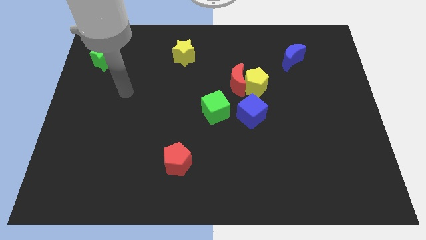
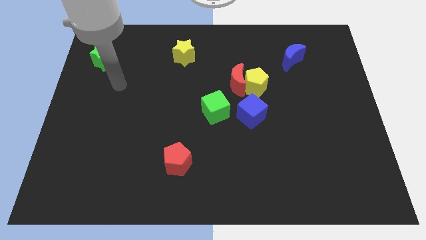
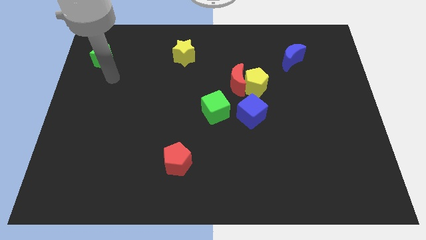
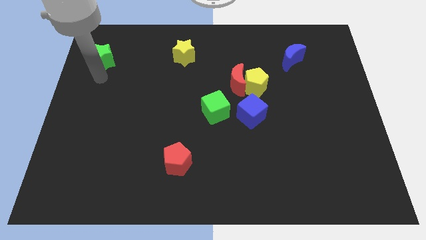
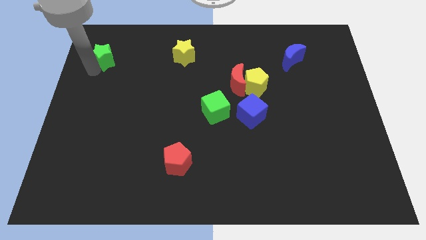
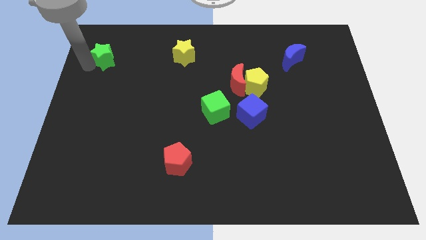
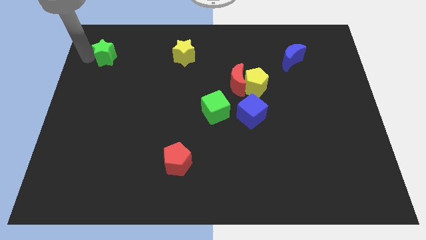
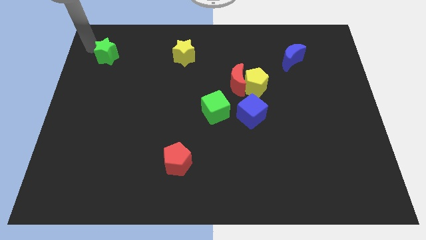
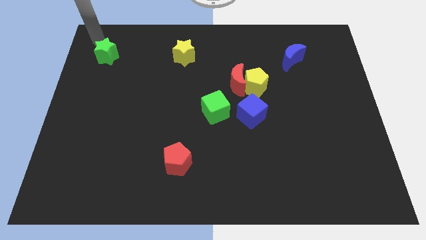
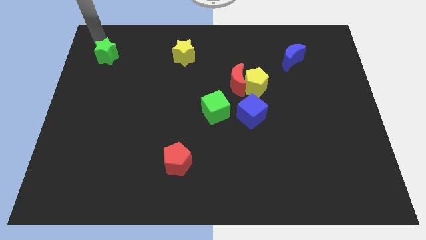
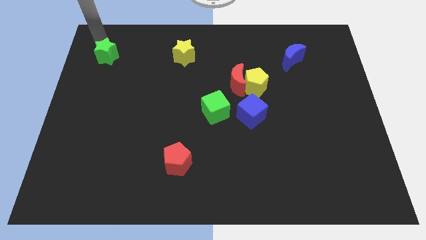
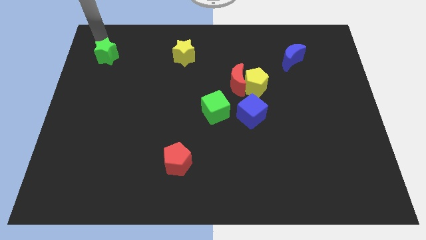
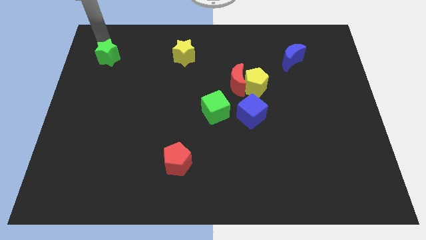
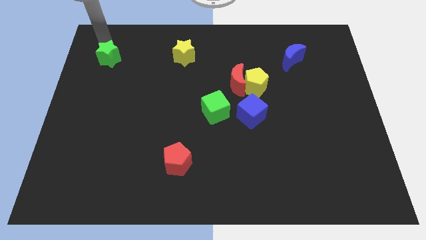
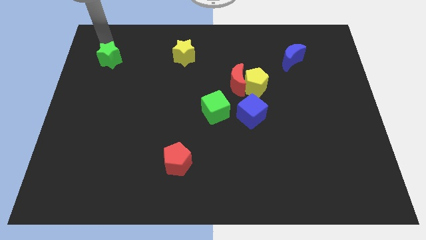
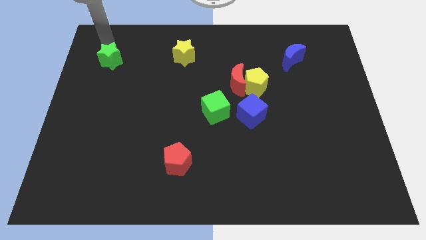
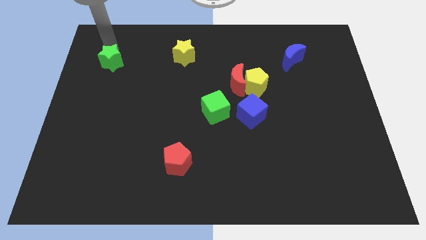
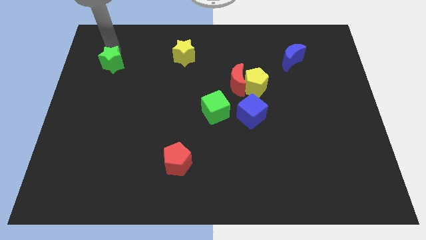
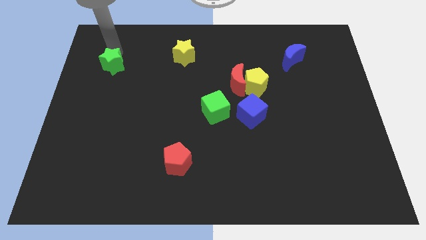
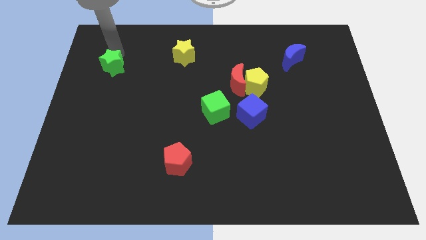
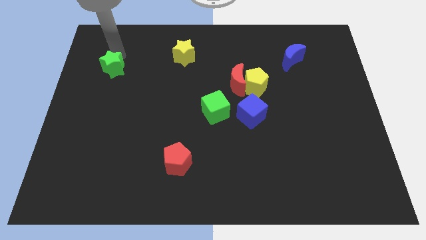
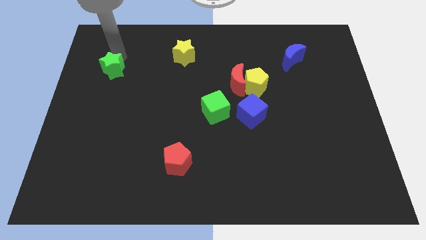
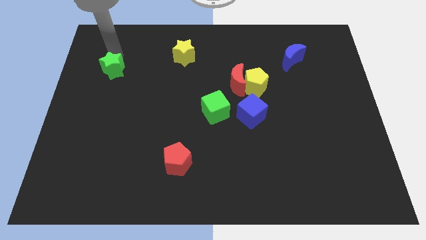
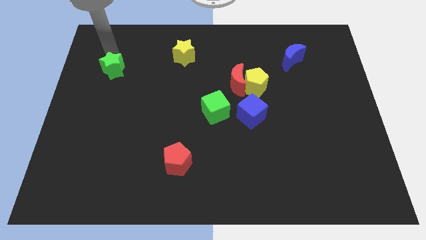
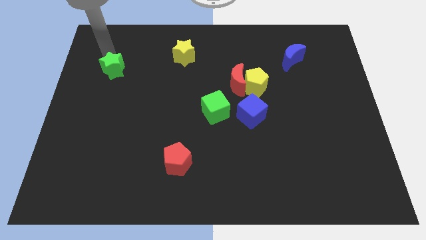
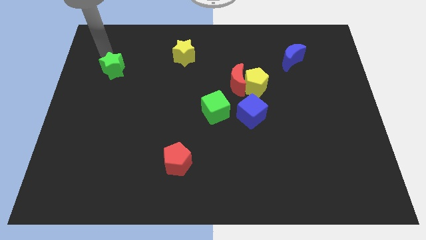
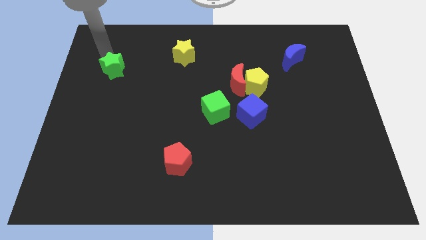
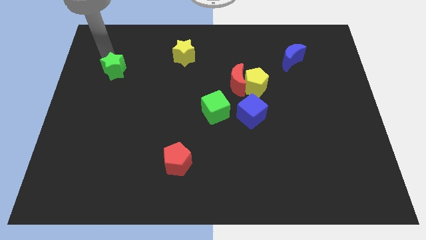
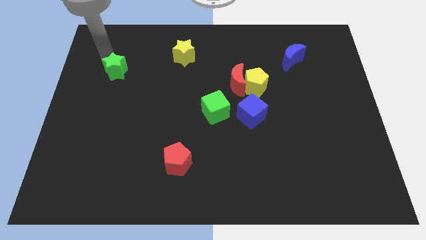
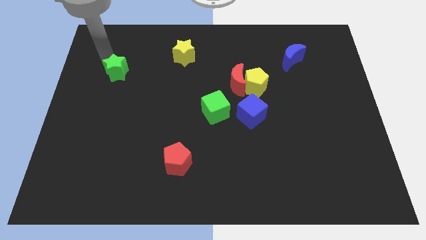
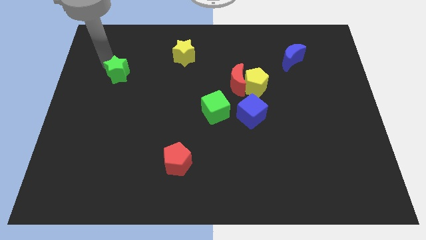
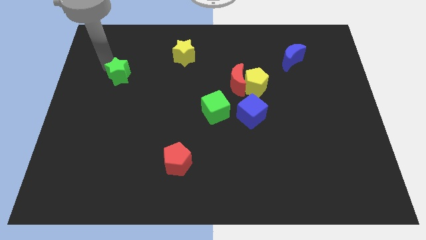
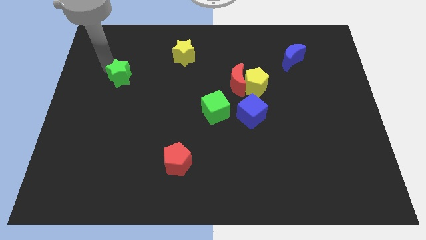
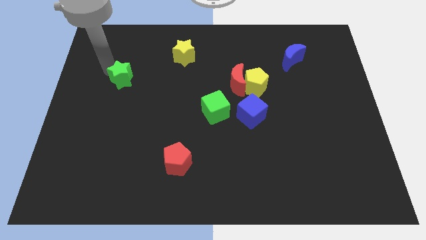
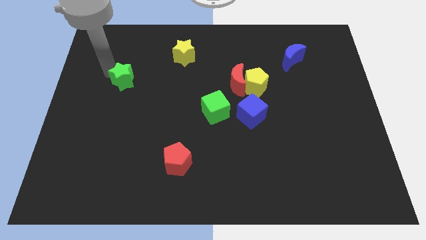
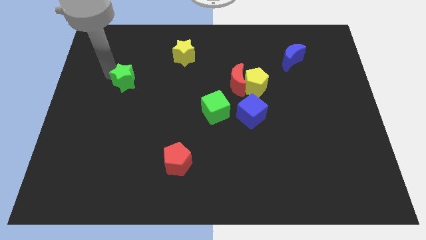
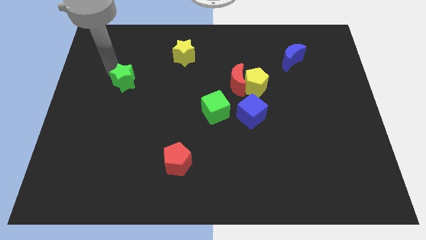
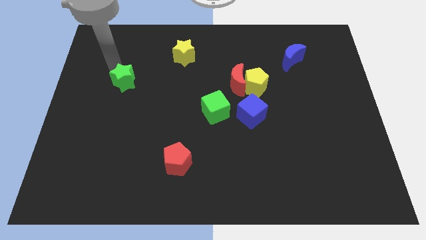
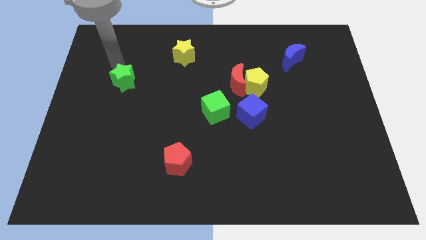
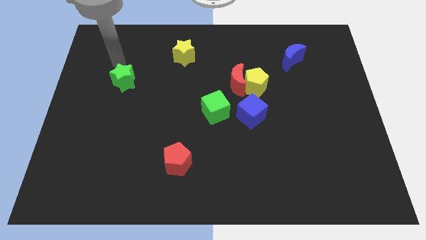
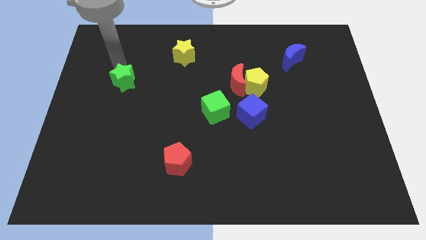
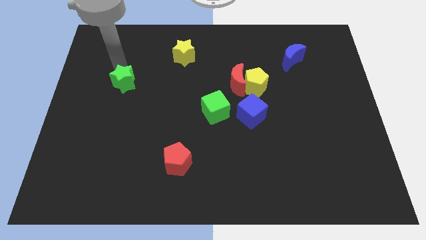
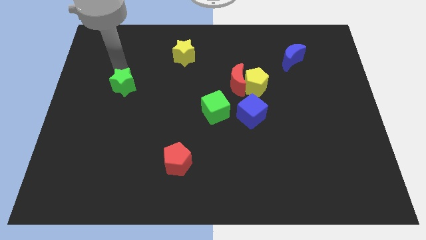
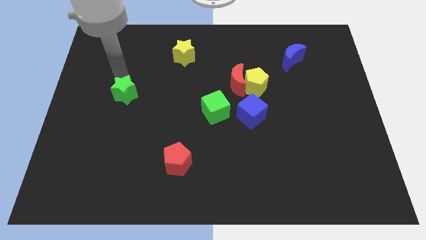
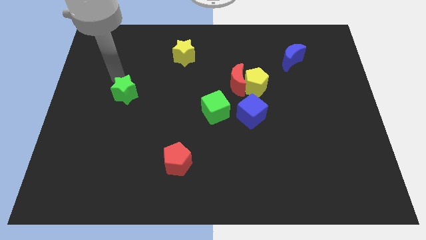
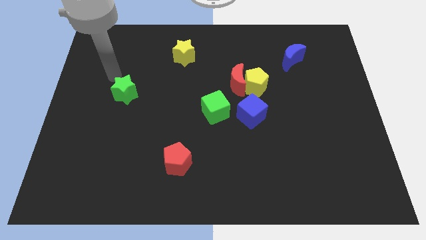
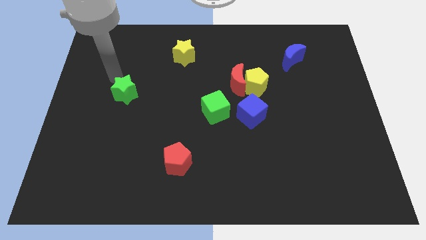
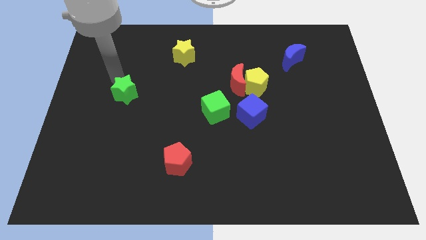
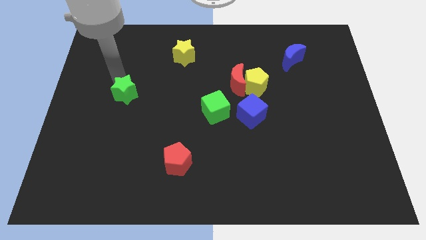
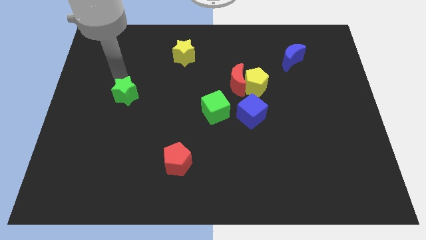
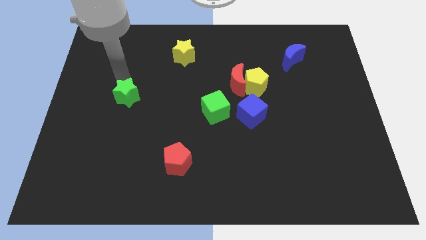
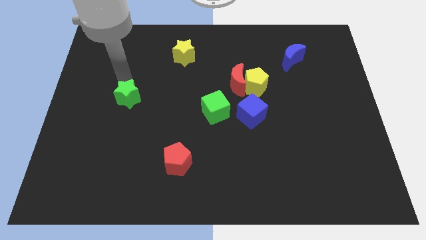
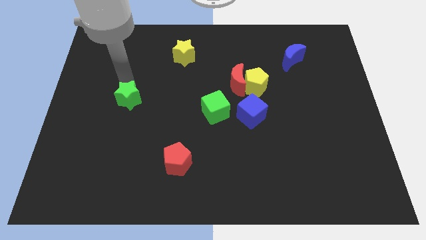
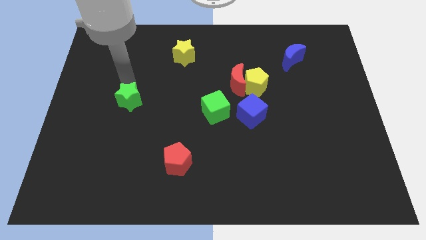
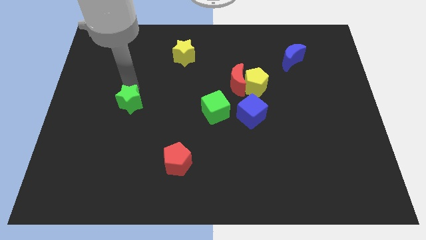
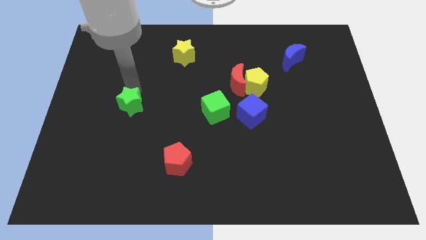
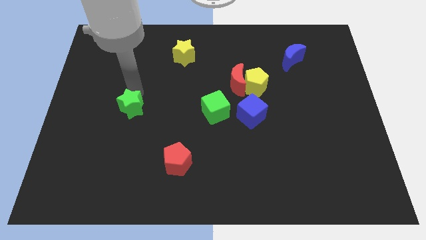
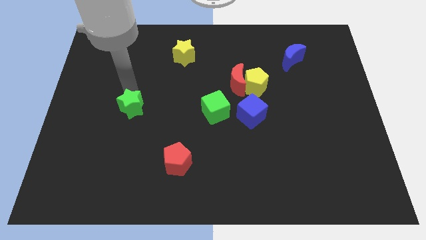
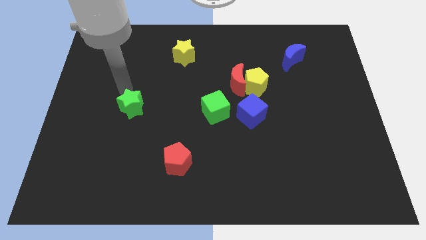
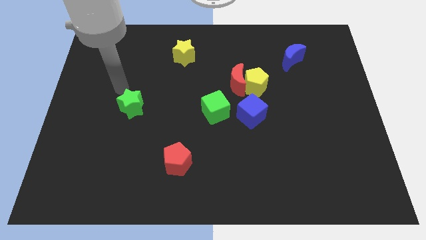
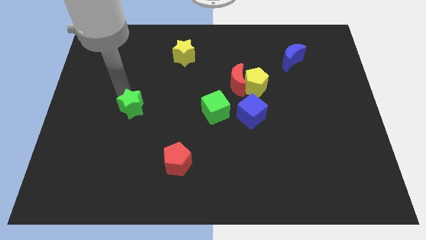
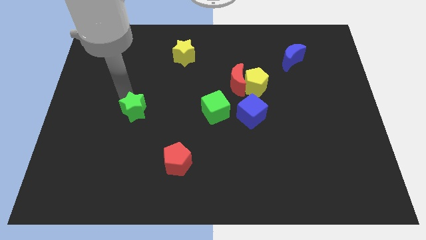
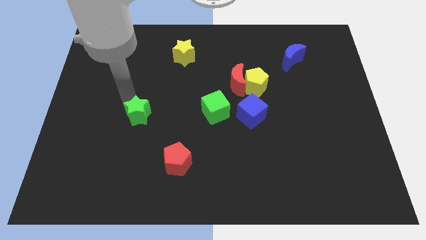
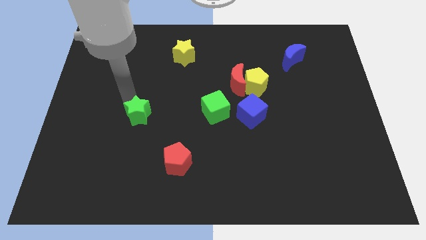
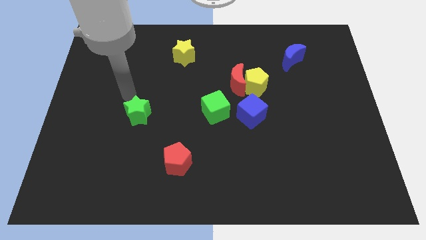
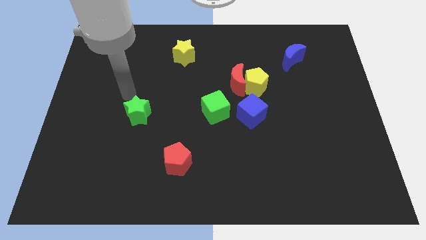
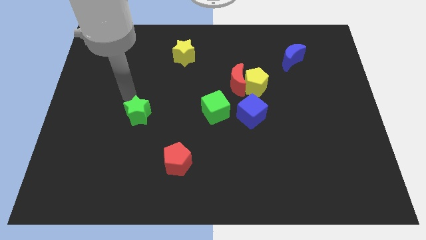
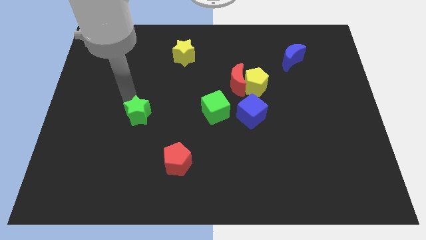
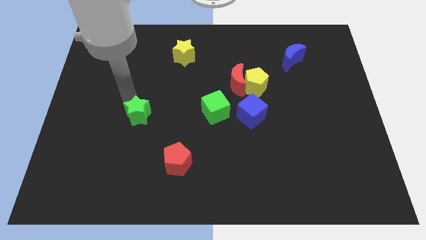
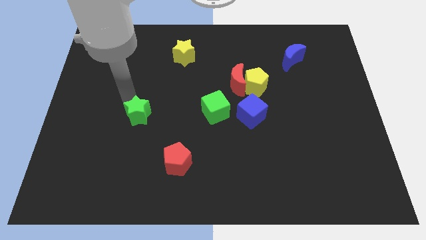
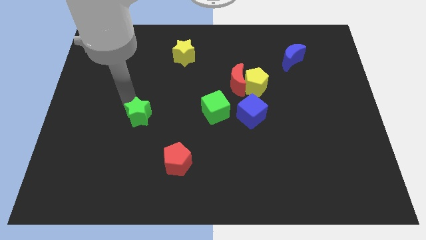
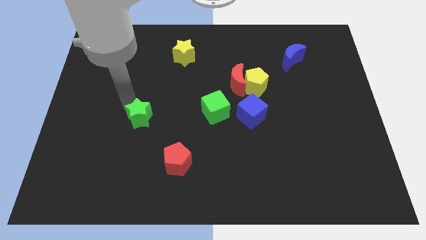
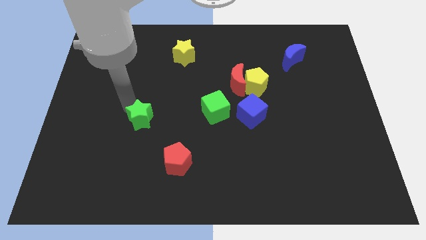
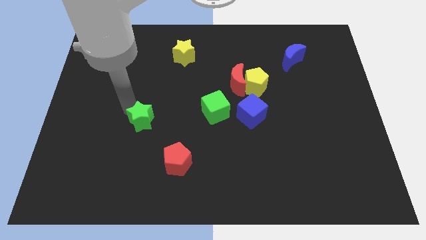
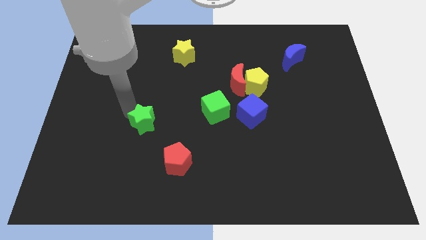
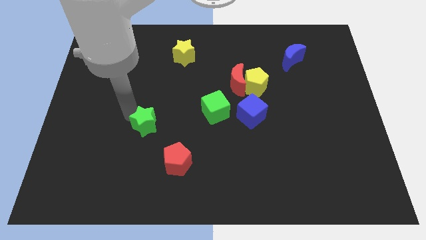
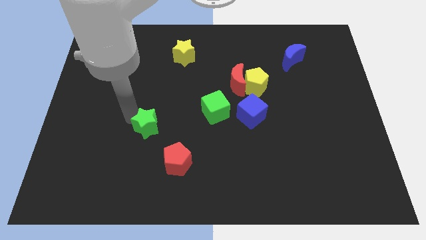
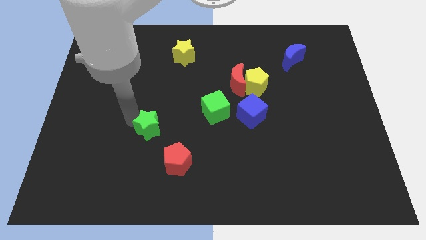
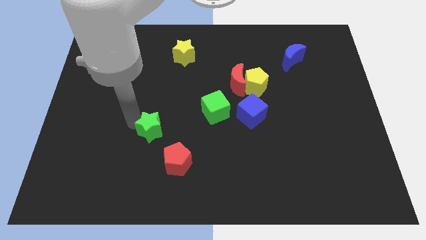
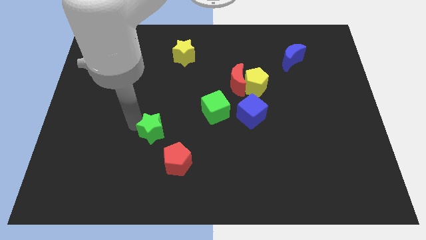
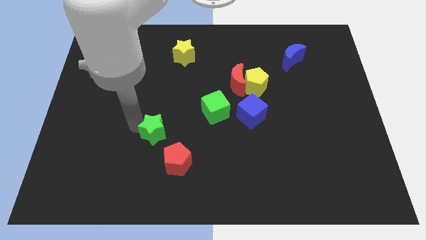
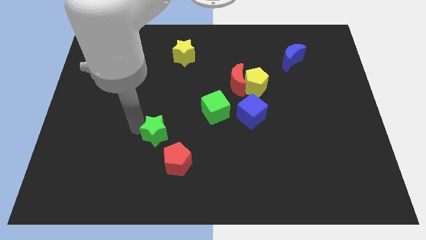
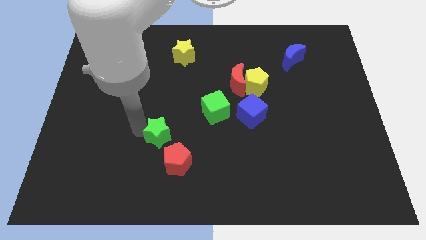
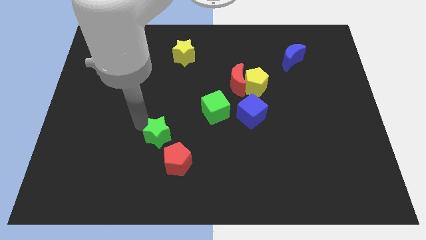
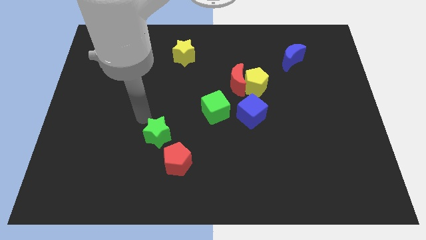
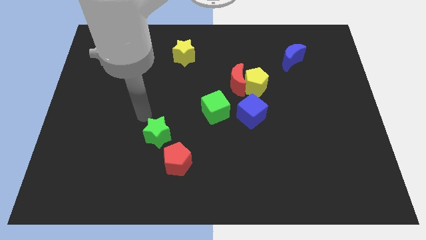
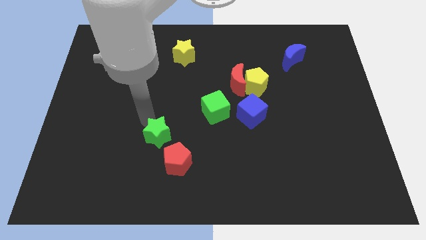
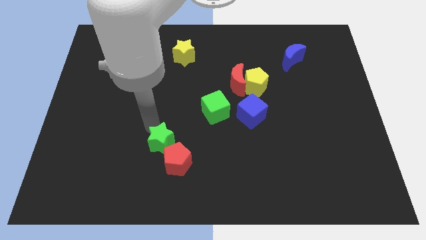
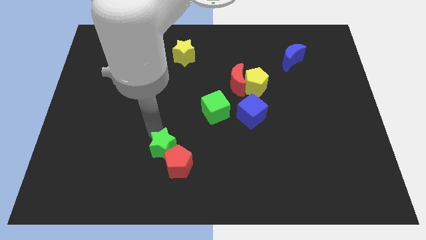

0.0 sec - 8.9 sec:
put the green star next to the red pentagon
